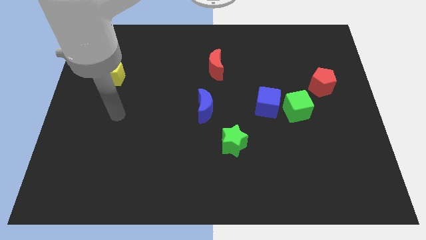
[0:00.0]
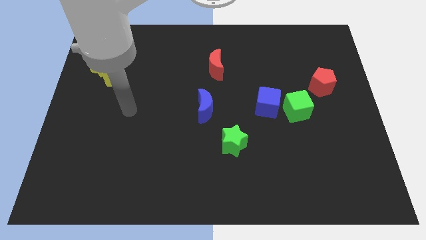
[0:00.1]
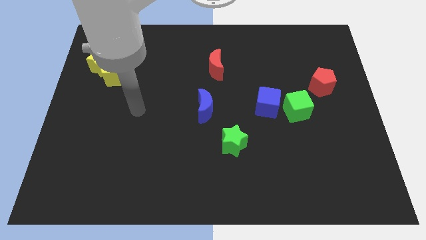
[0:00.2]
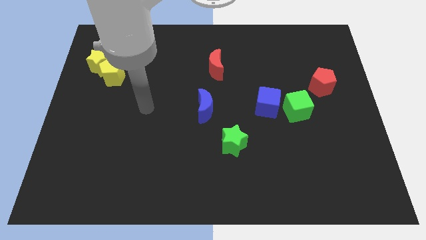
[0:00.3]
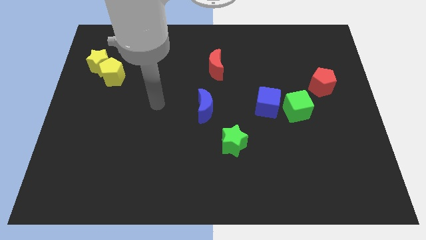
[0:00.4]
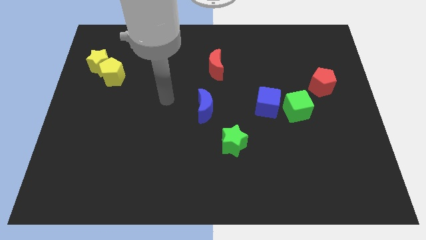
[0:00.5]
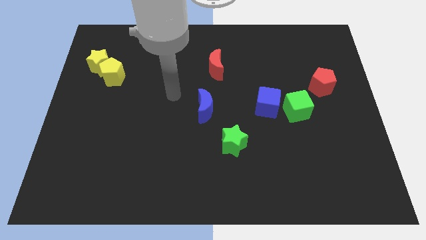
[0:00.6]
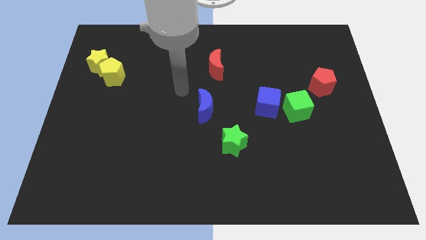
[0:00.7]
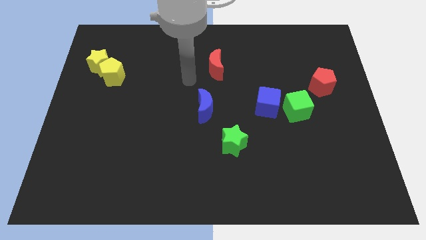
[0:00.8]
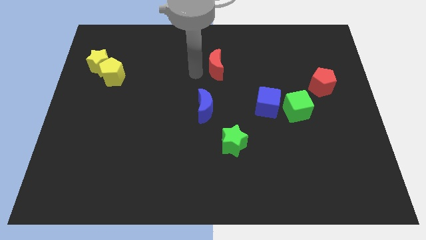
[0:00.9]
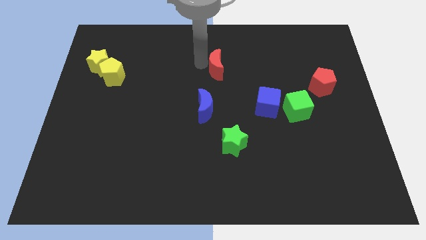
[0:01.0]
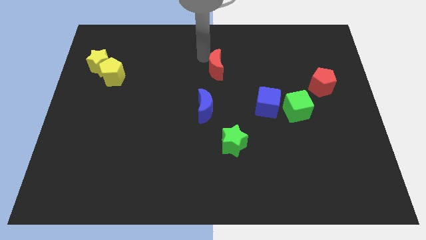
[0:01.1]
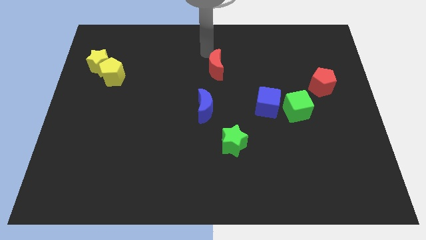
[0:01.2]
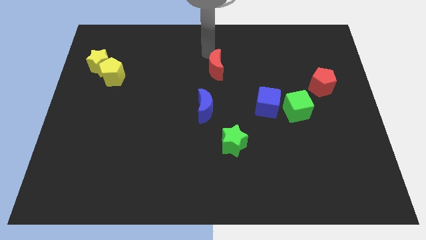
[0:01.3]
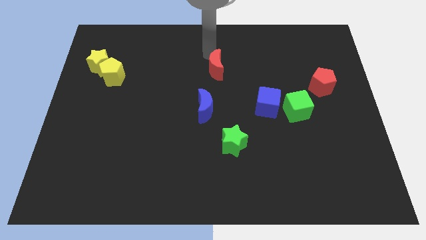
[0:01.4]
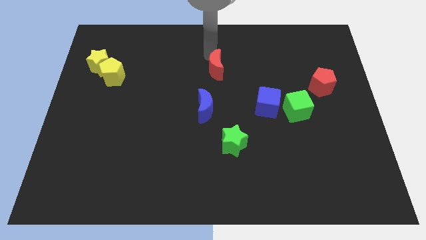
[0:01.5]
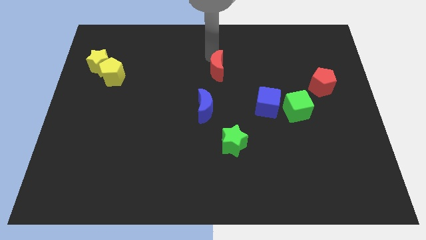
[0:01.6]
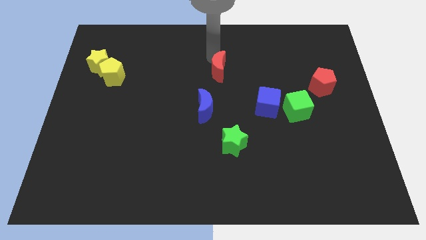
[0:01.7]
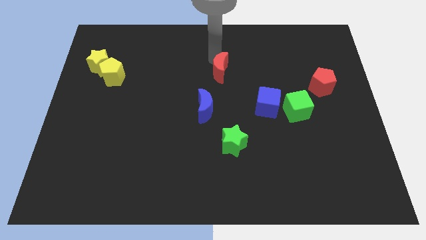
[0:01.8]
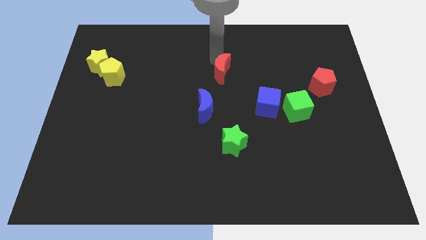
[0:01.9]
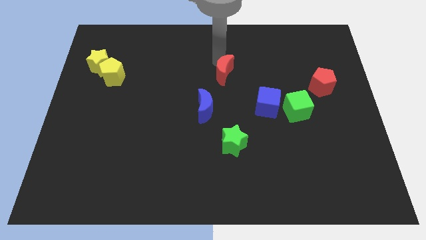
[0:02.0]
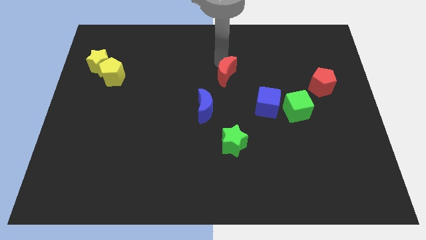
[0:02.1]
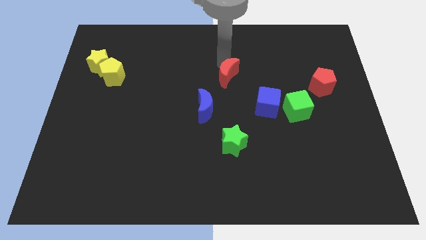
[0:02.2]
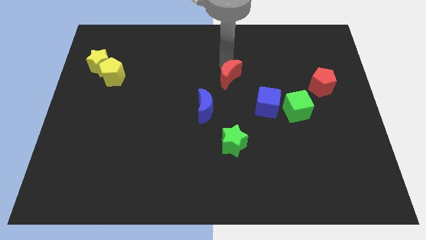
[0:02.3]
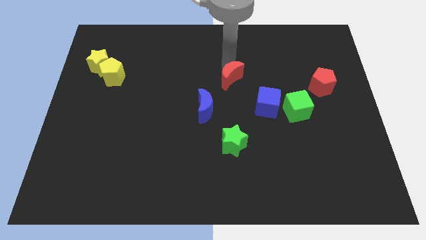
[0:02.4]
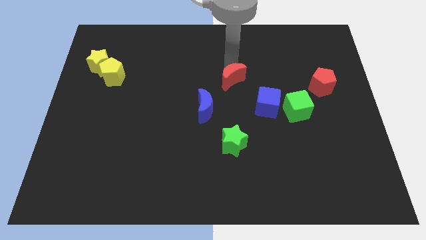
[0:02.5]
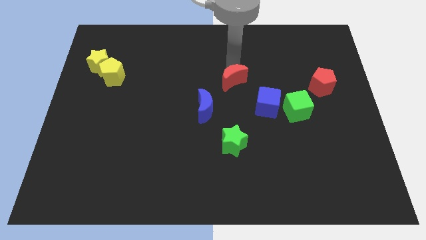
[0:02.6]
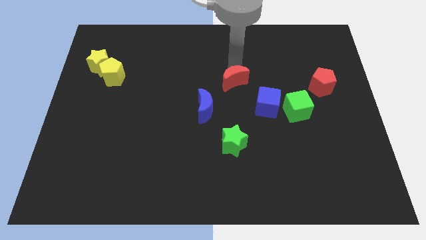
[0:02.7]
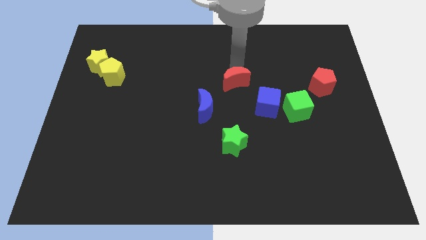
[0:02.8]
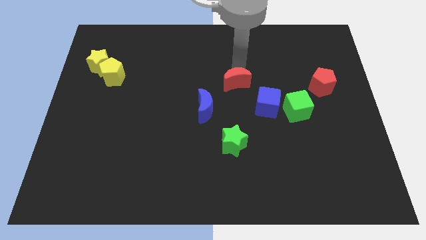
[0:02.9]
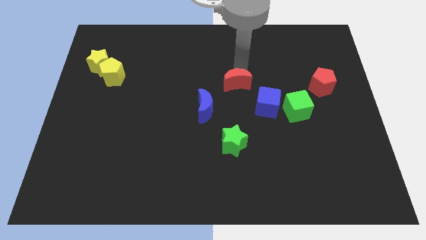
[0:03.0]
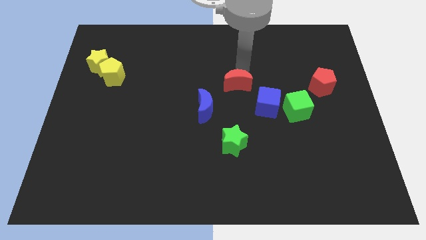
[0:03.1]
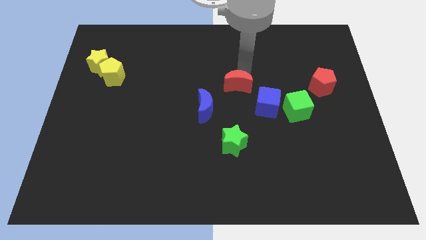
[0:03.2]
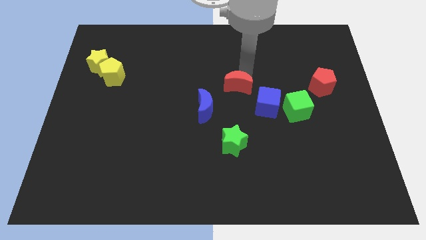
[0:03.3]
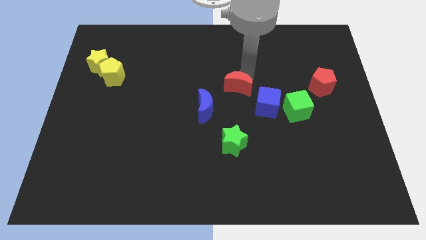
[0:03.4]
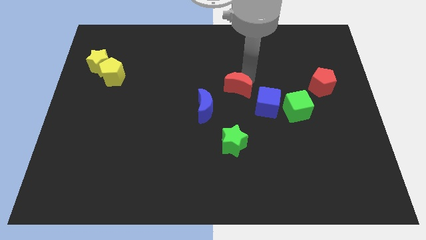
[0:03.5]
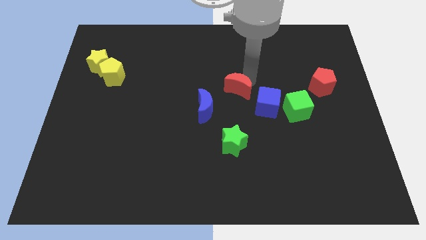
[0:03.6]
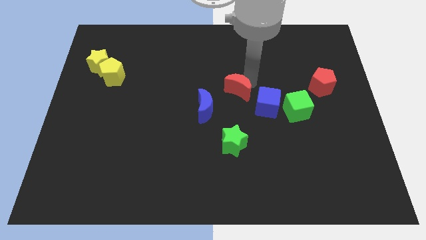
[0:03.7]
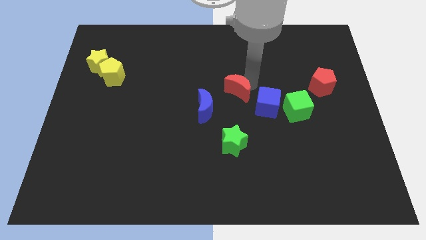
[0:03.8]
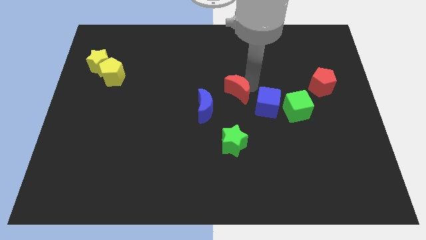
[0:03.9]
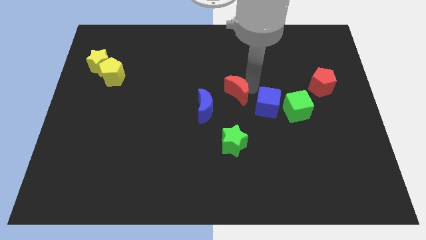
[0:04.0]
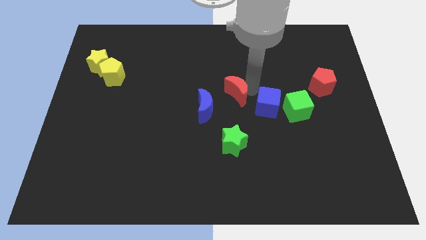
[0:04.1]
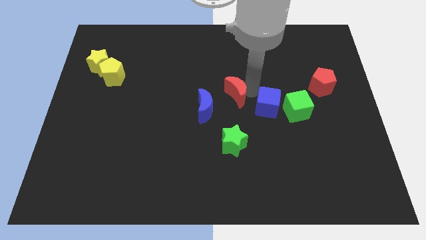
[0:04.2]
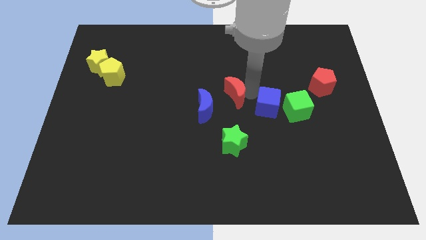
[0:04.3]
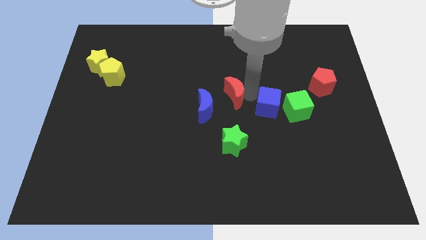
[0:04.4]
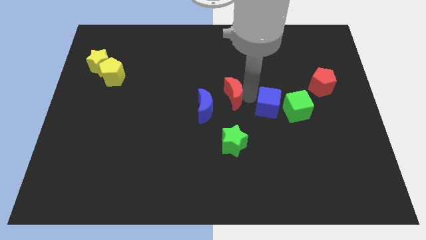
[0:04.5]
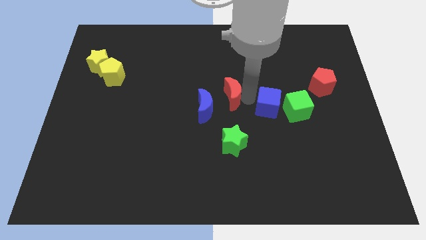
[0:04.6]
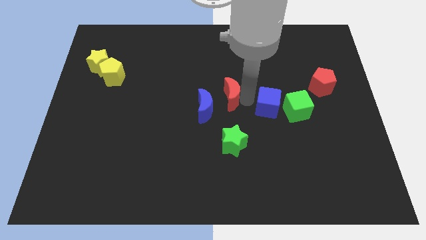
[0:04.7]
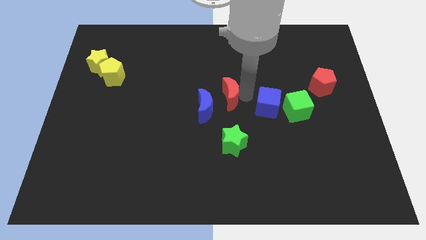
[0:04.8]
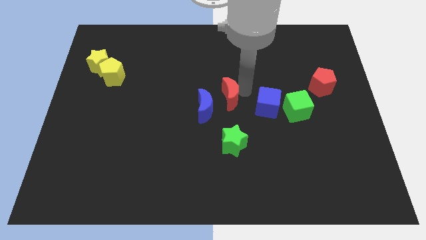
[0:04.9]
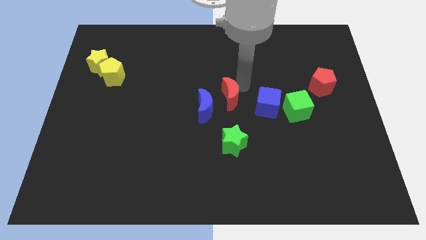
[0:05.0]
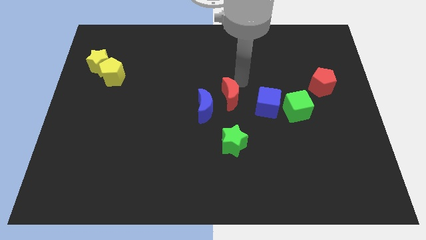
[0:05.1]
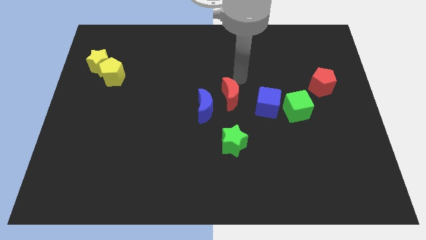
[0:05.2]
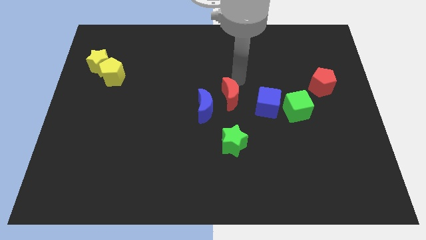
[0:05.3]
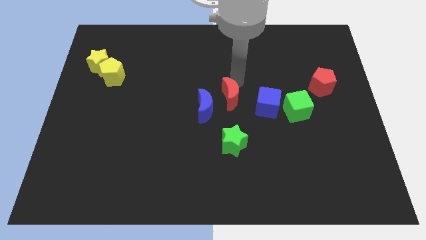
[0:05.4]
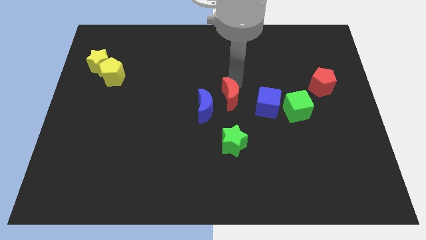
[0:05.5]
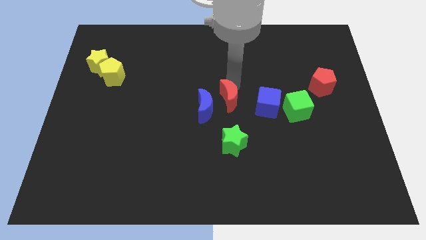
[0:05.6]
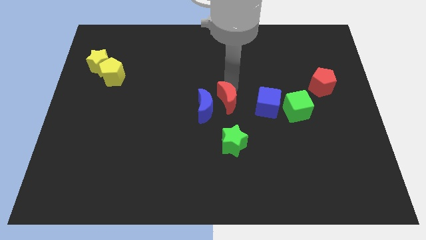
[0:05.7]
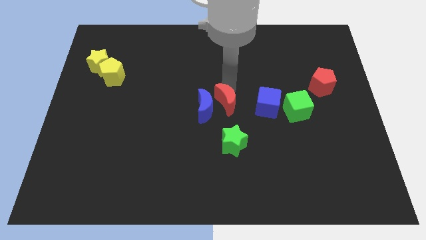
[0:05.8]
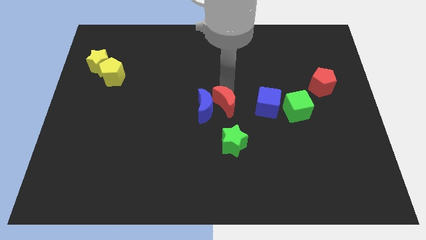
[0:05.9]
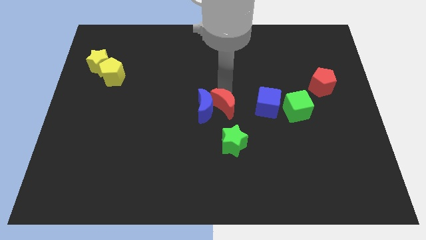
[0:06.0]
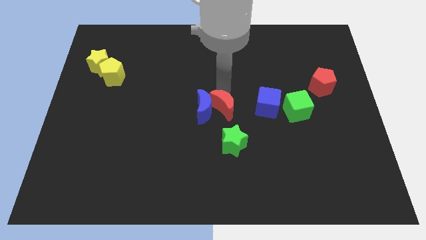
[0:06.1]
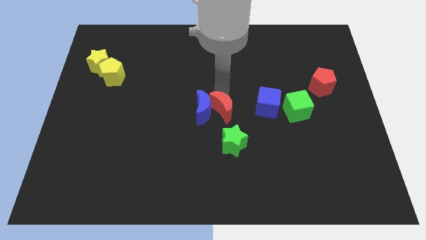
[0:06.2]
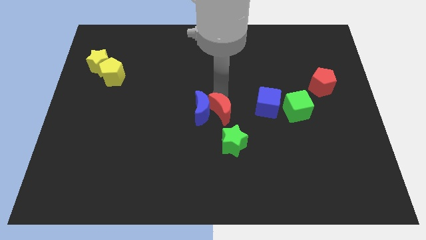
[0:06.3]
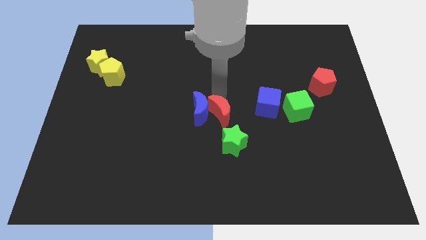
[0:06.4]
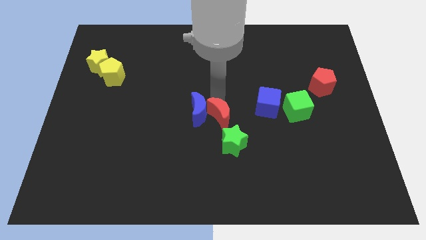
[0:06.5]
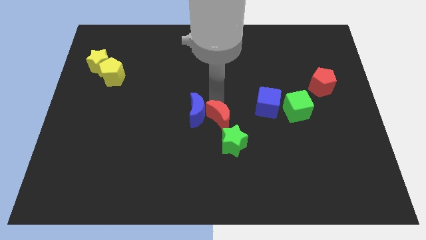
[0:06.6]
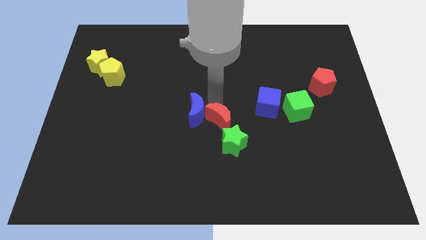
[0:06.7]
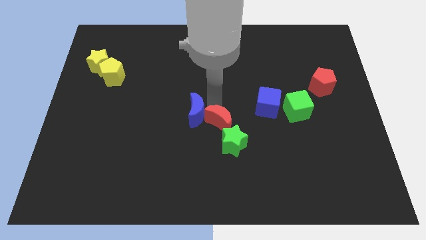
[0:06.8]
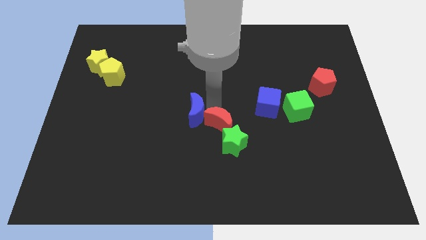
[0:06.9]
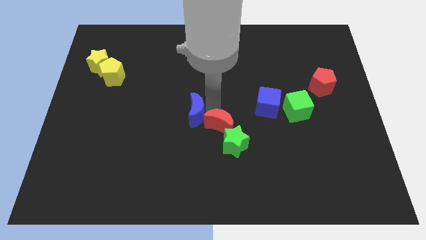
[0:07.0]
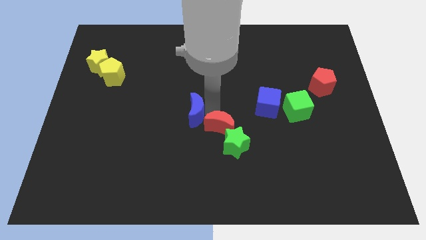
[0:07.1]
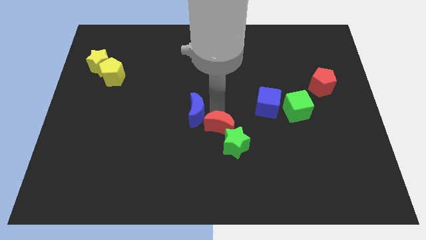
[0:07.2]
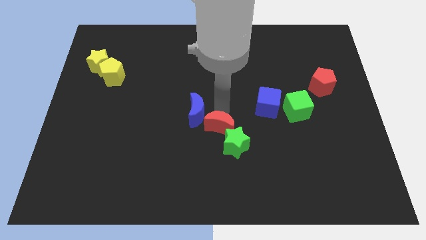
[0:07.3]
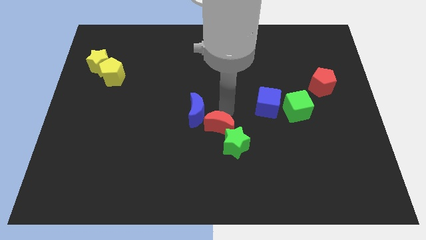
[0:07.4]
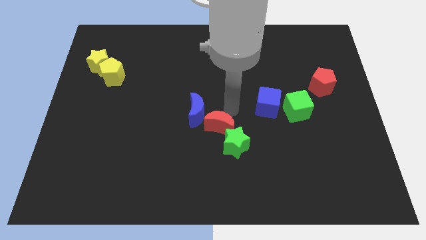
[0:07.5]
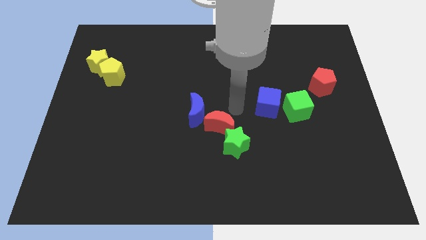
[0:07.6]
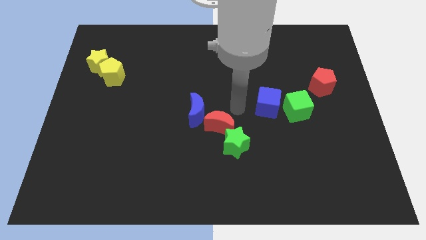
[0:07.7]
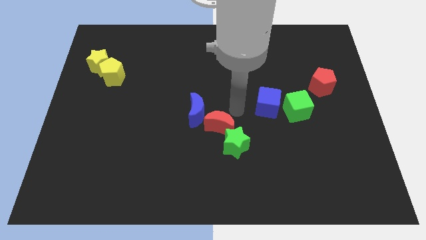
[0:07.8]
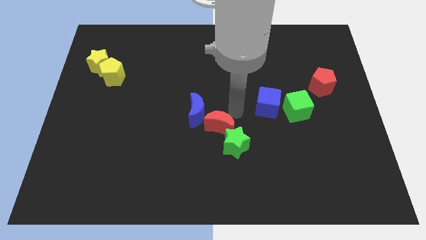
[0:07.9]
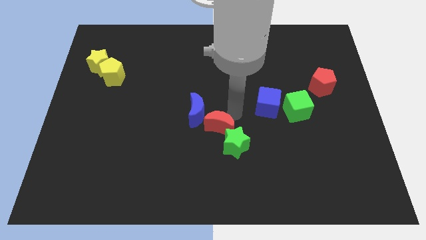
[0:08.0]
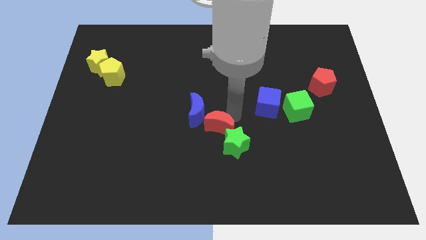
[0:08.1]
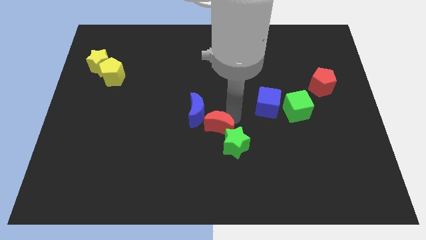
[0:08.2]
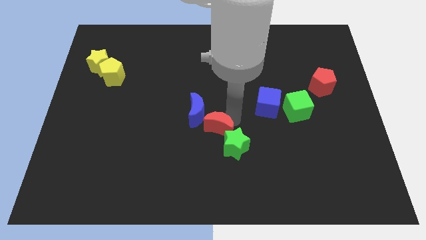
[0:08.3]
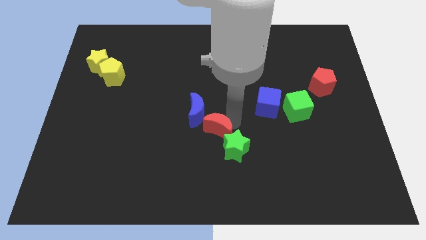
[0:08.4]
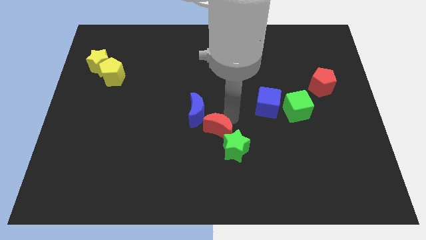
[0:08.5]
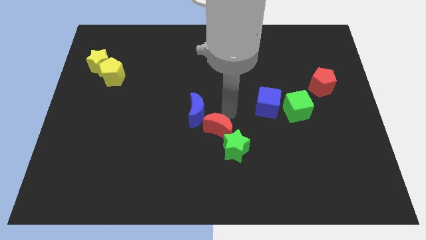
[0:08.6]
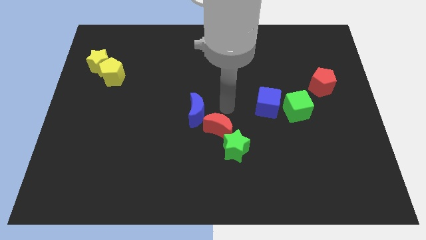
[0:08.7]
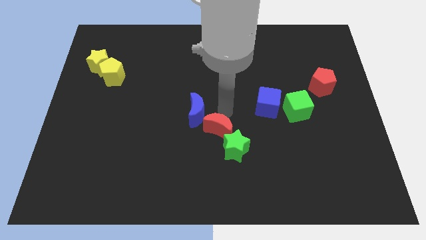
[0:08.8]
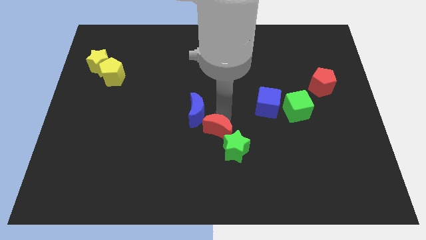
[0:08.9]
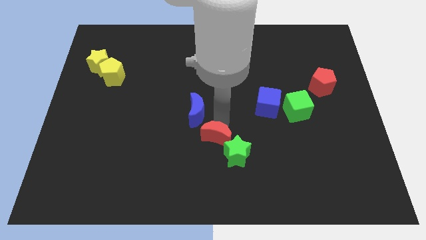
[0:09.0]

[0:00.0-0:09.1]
move the red moon down
